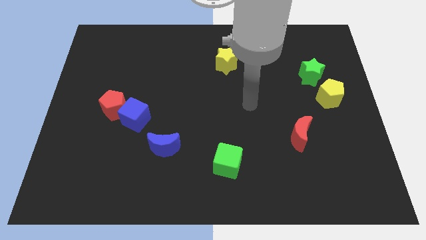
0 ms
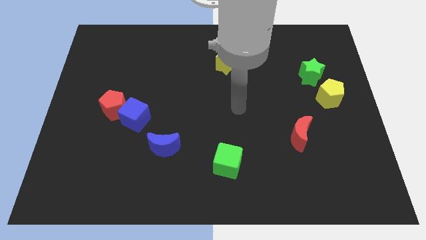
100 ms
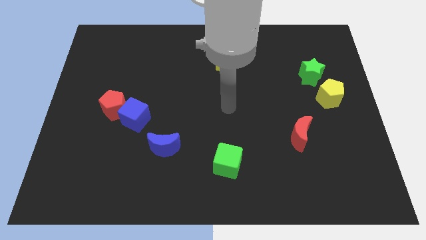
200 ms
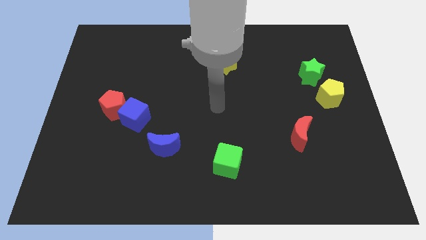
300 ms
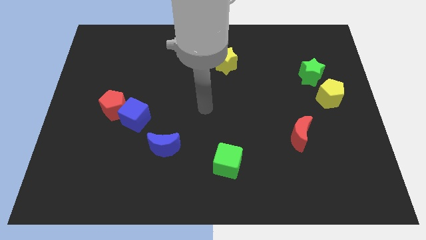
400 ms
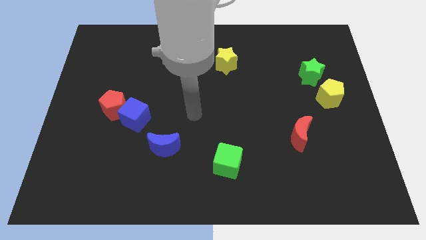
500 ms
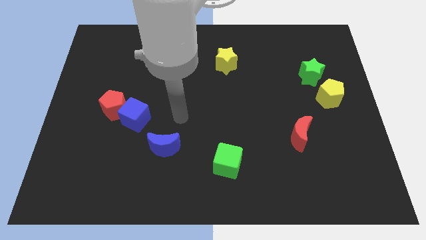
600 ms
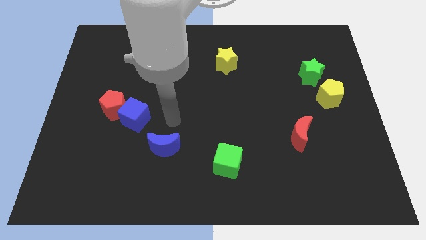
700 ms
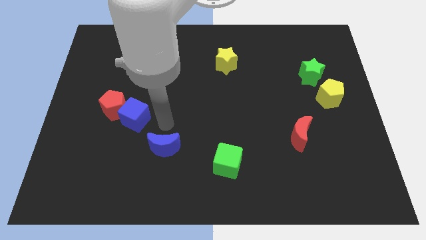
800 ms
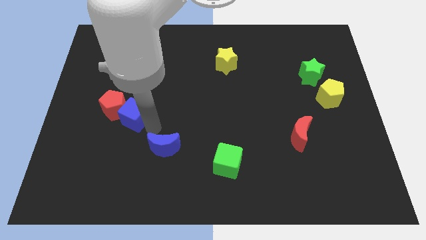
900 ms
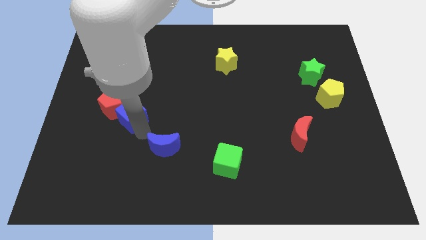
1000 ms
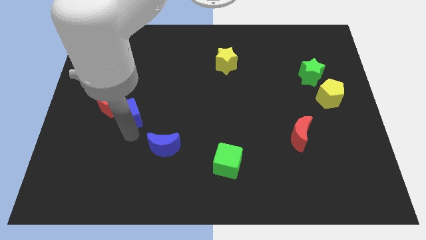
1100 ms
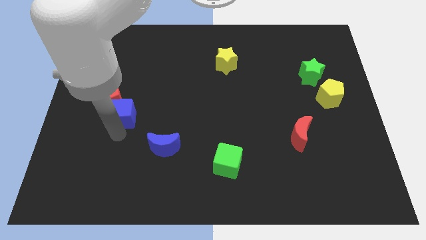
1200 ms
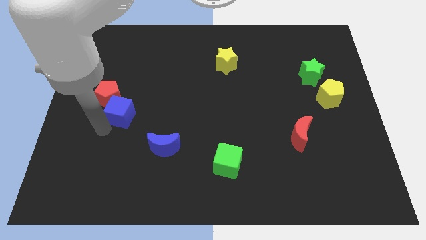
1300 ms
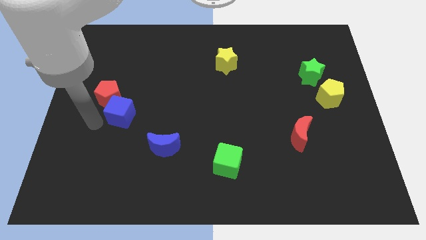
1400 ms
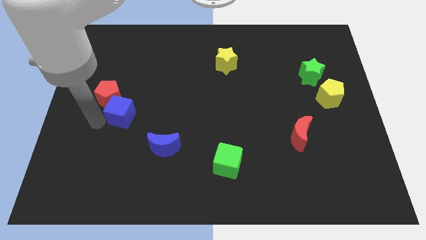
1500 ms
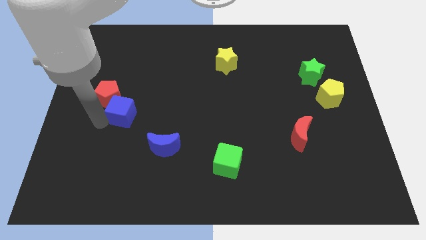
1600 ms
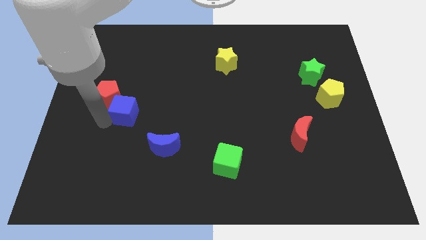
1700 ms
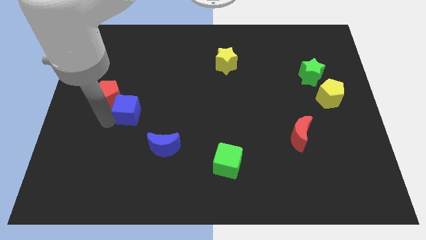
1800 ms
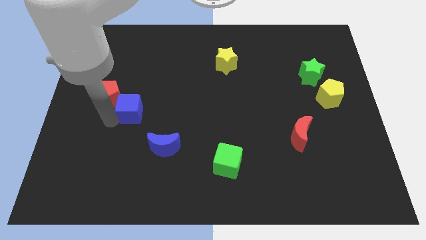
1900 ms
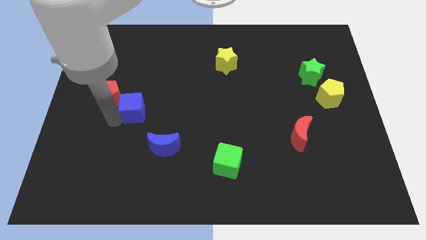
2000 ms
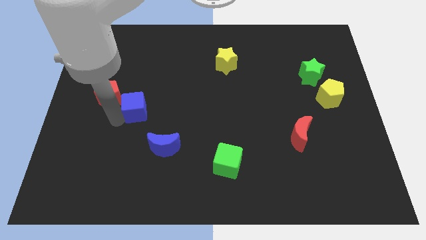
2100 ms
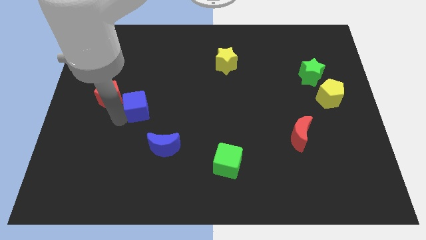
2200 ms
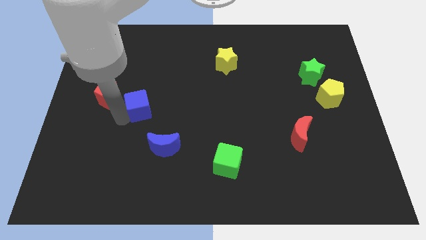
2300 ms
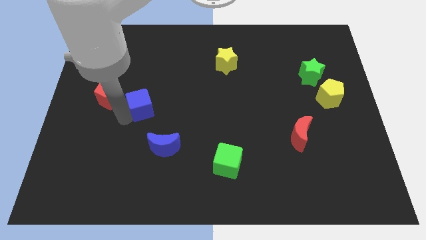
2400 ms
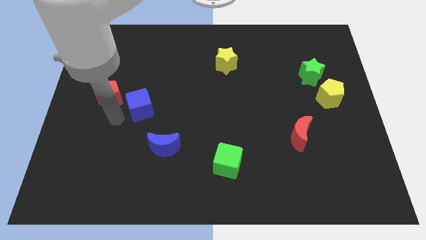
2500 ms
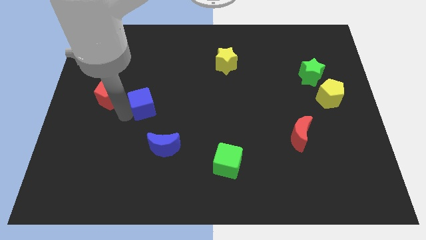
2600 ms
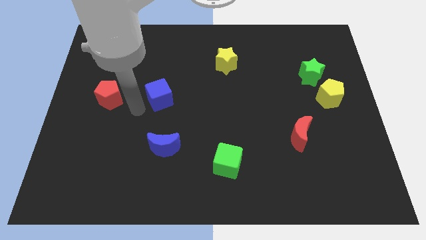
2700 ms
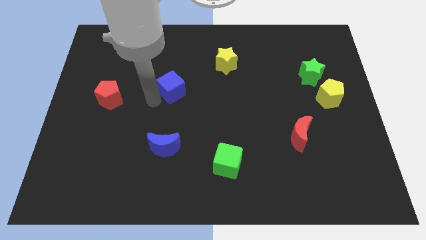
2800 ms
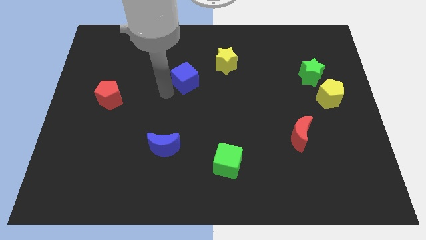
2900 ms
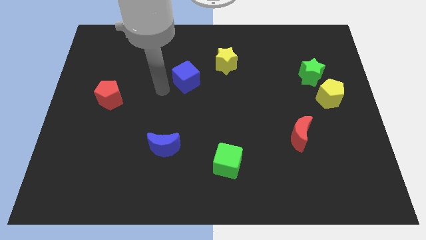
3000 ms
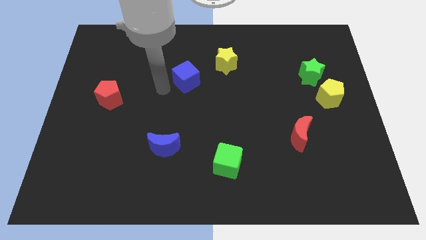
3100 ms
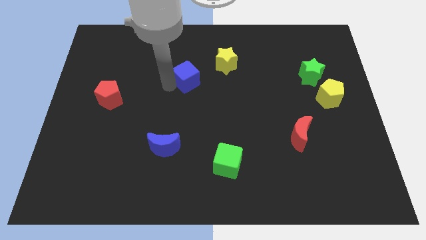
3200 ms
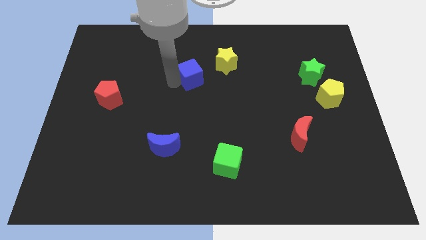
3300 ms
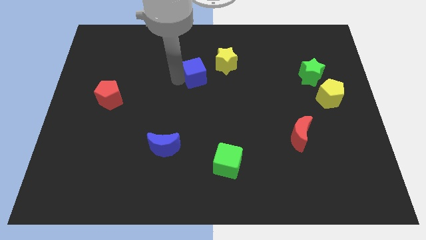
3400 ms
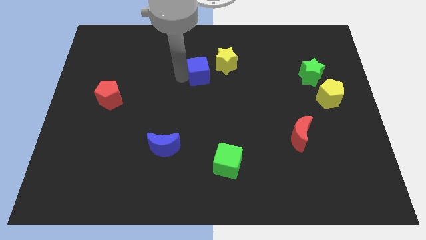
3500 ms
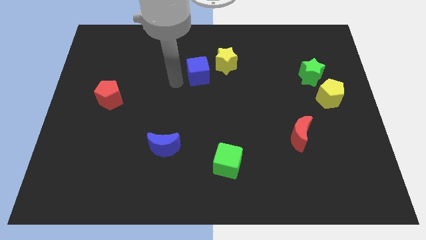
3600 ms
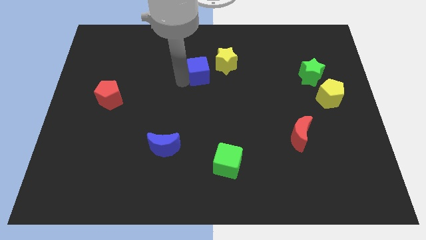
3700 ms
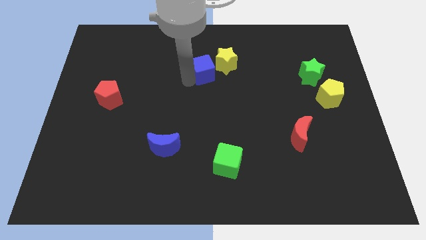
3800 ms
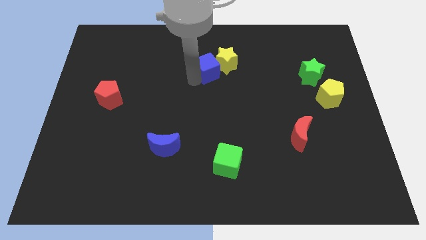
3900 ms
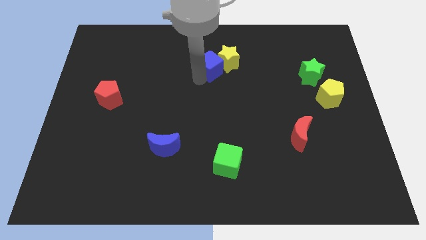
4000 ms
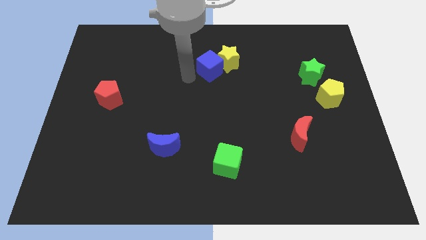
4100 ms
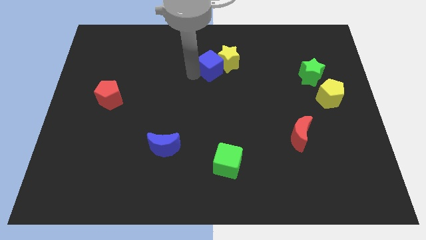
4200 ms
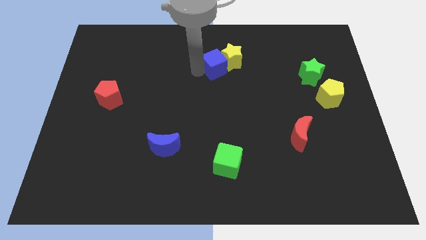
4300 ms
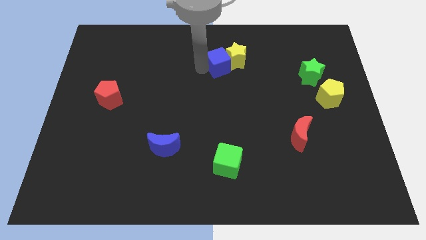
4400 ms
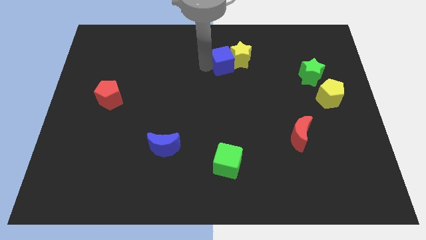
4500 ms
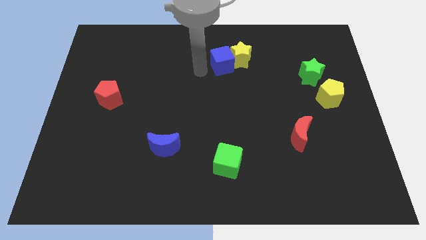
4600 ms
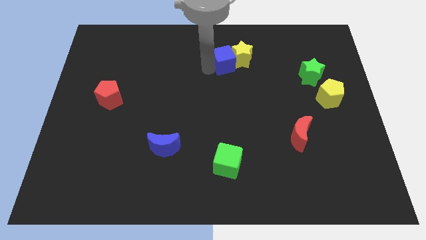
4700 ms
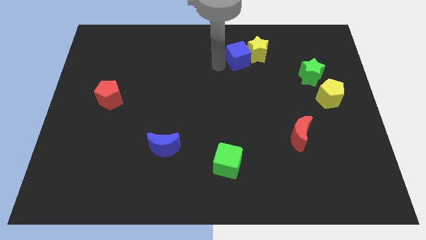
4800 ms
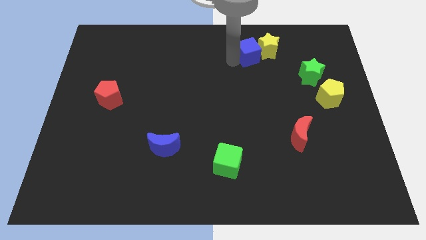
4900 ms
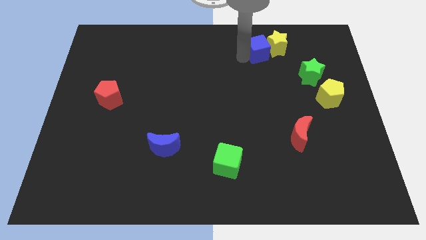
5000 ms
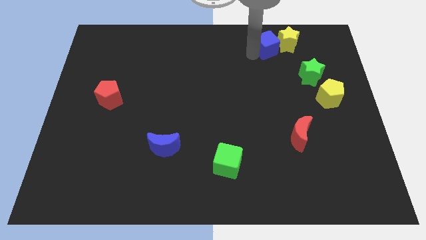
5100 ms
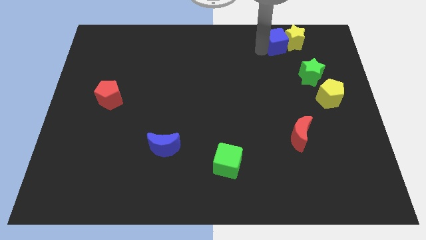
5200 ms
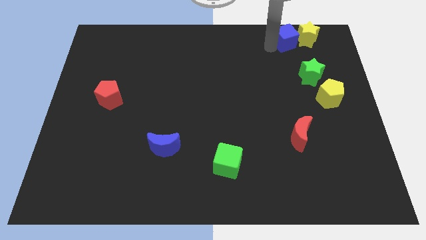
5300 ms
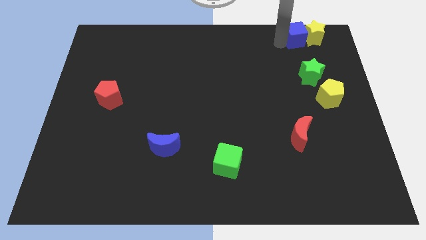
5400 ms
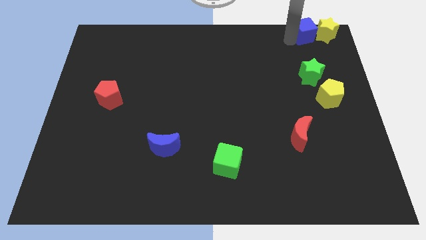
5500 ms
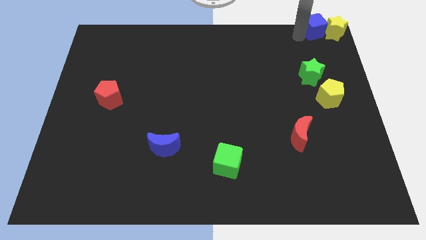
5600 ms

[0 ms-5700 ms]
move the blue cube to the upper right corner

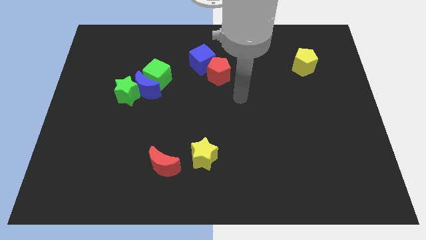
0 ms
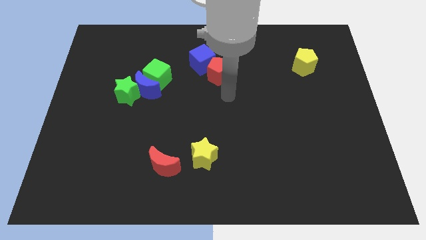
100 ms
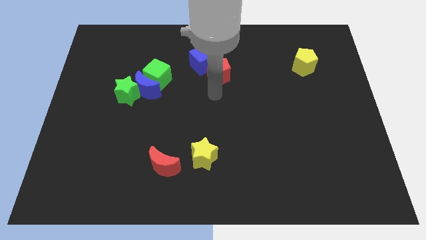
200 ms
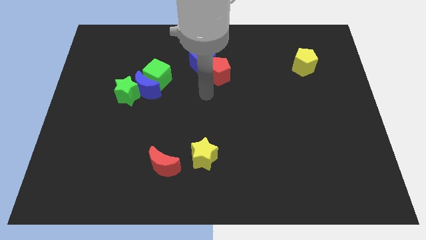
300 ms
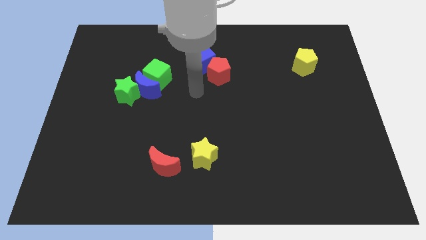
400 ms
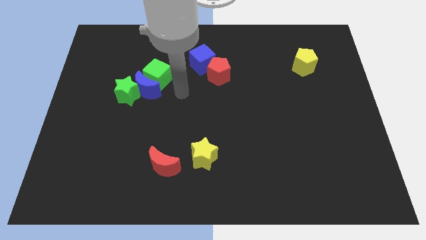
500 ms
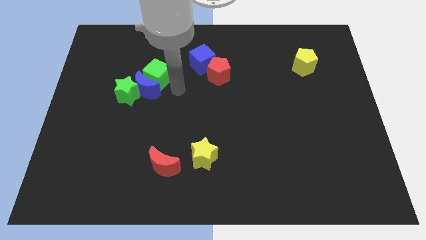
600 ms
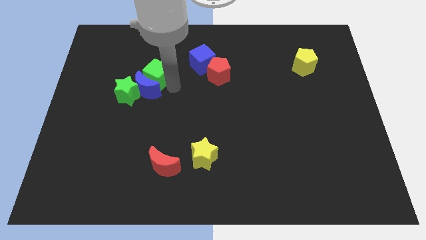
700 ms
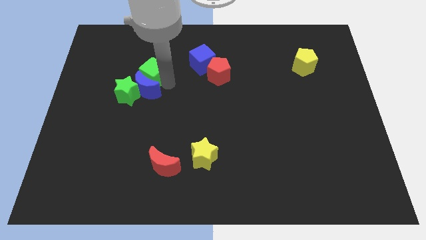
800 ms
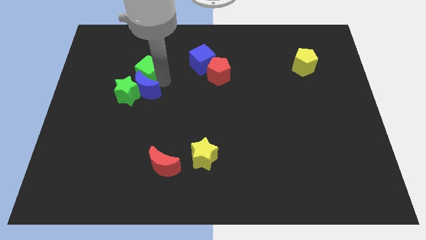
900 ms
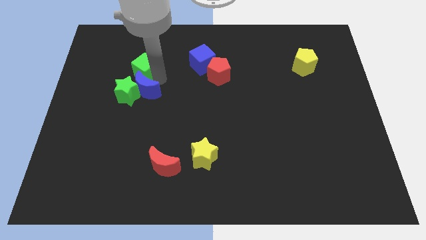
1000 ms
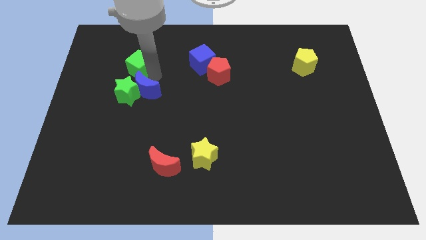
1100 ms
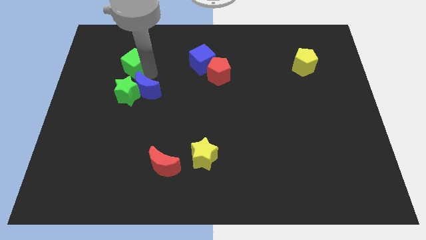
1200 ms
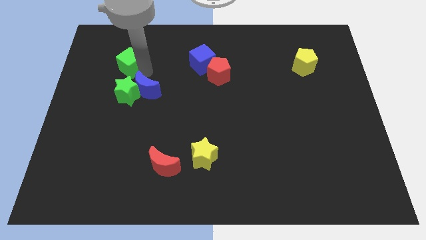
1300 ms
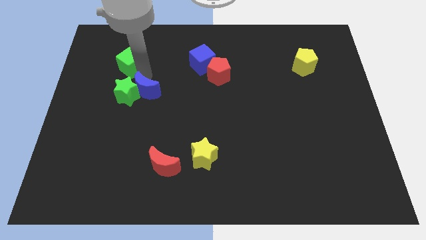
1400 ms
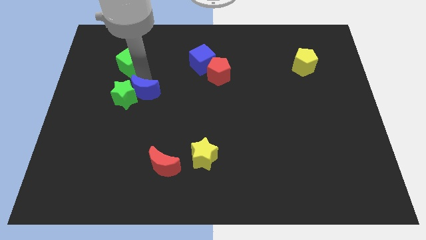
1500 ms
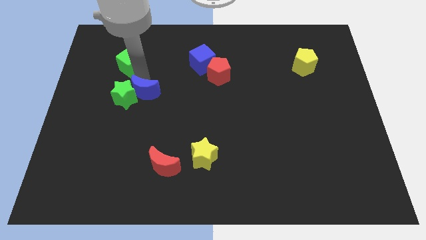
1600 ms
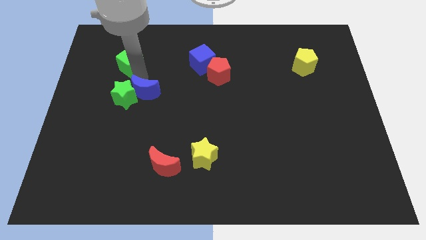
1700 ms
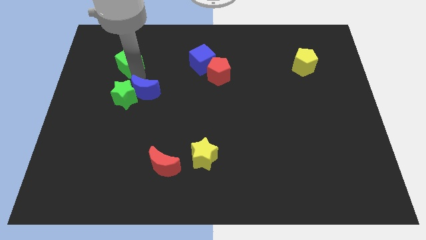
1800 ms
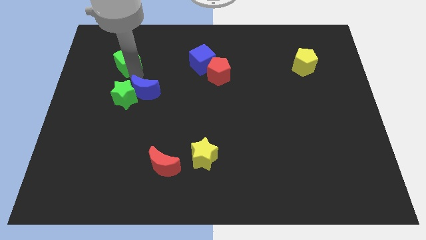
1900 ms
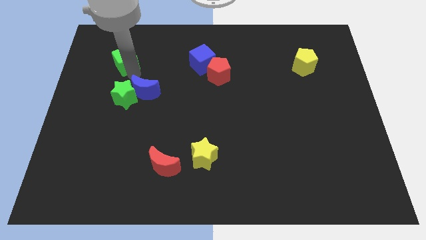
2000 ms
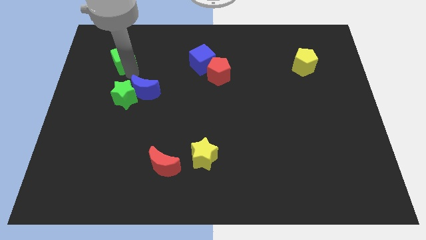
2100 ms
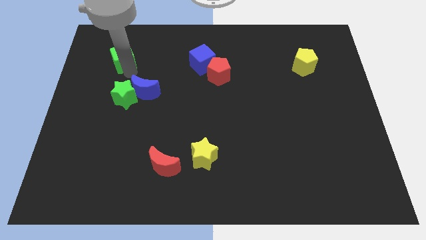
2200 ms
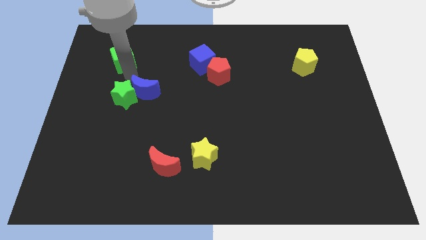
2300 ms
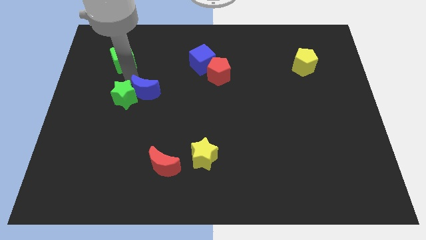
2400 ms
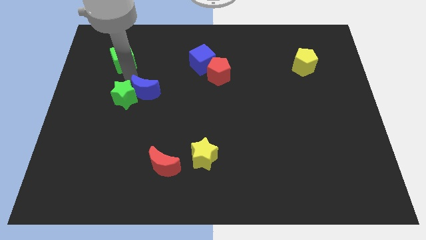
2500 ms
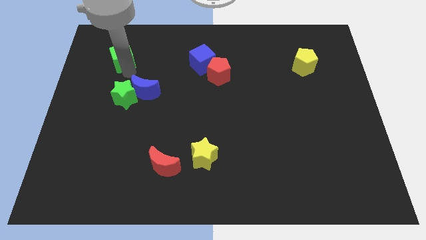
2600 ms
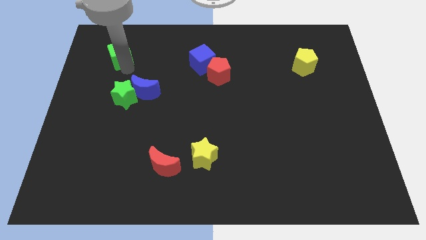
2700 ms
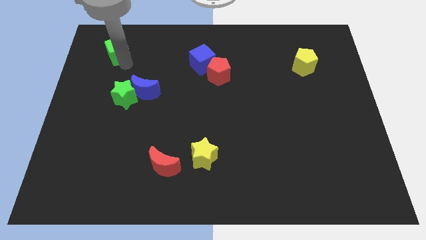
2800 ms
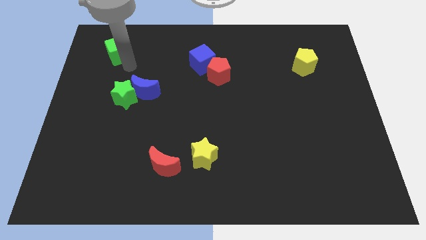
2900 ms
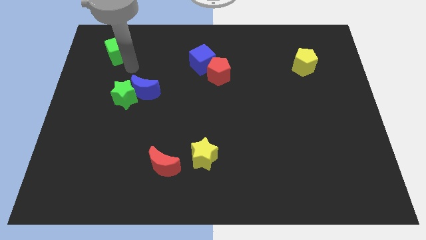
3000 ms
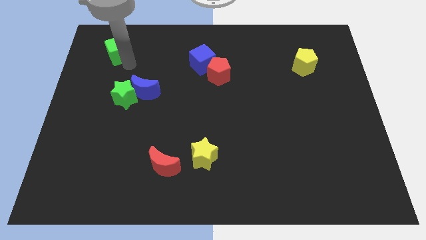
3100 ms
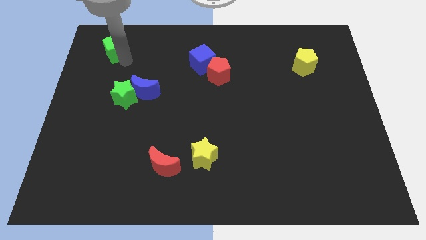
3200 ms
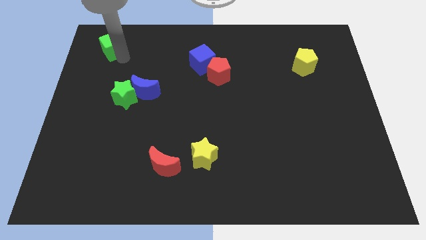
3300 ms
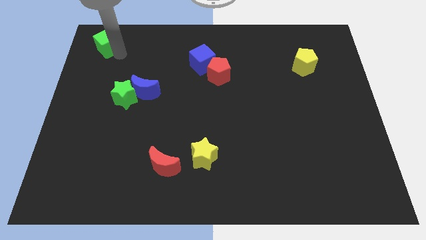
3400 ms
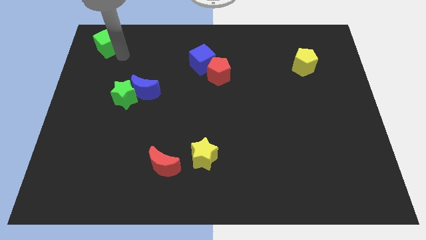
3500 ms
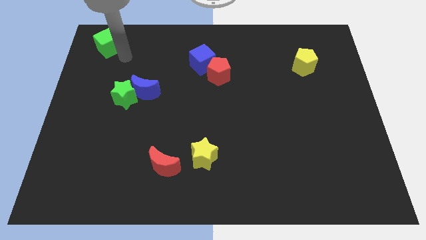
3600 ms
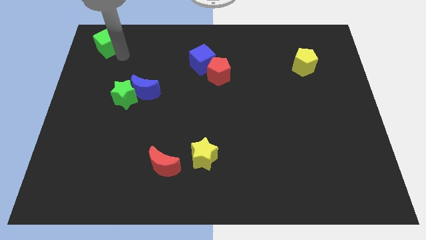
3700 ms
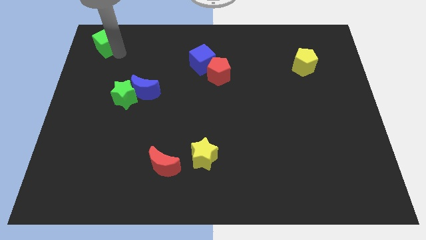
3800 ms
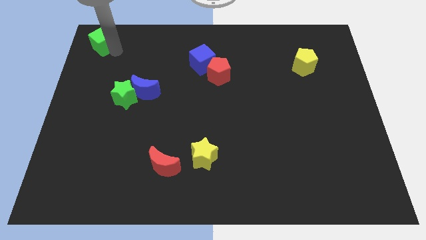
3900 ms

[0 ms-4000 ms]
push the green cube to the top left corner
